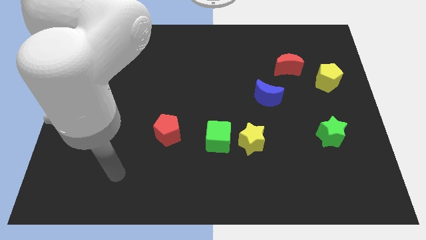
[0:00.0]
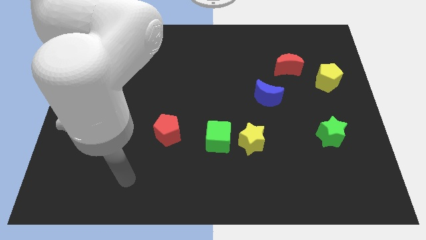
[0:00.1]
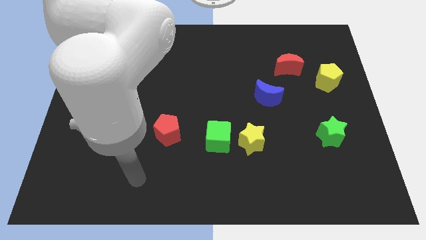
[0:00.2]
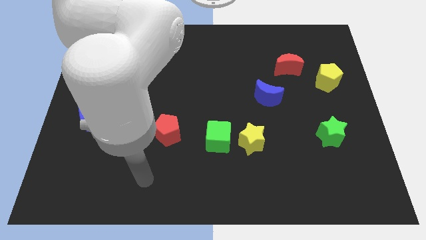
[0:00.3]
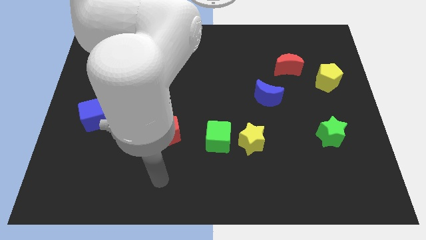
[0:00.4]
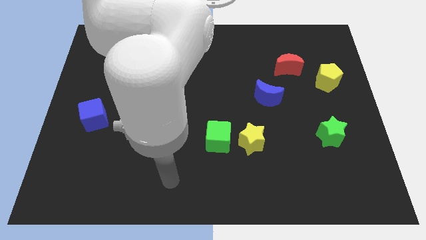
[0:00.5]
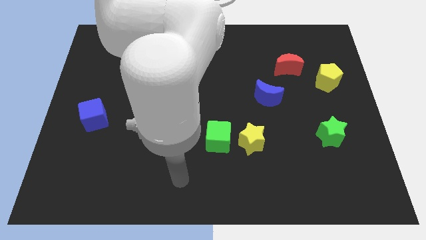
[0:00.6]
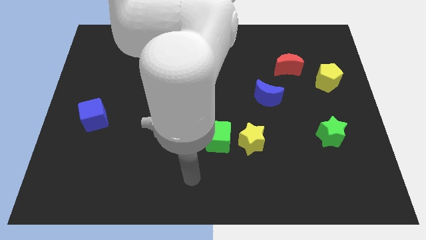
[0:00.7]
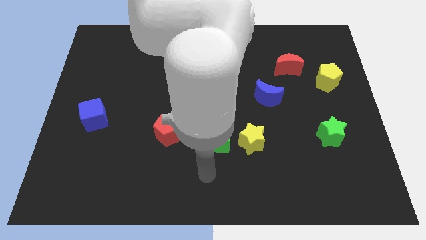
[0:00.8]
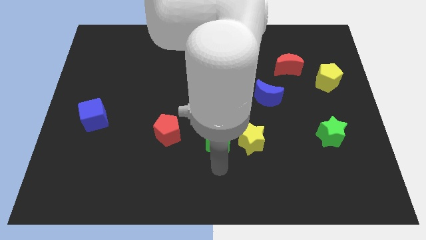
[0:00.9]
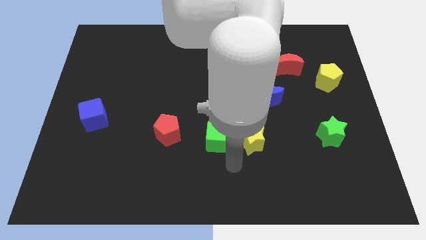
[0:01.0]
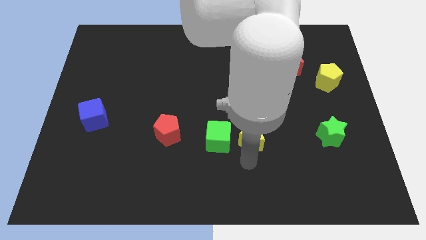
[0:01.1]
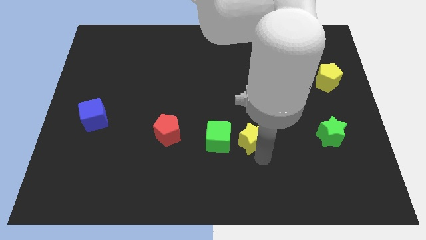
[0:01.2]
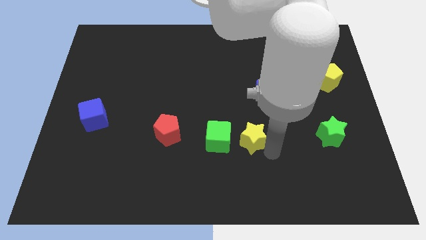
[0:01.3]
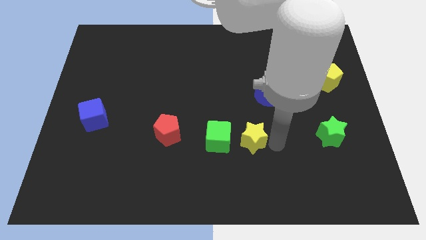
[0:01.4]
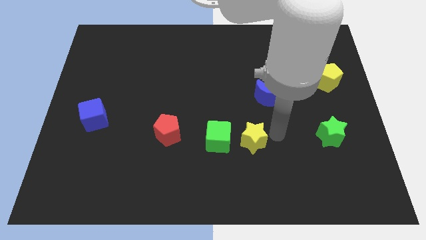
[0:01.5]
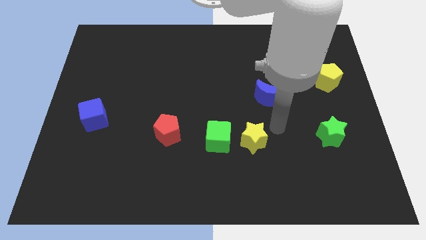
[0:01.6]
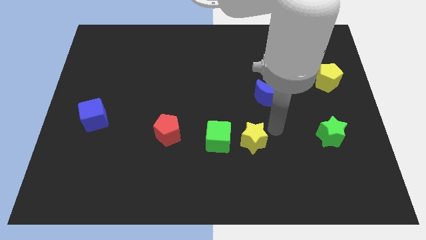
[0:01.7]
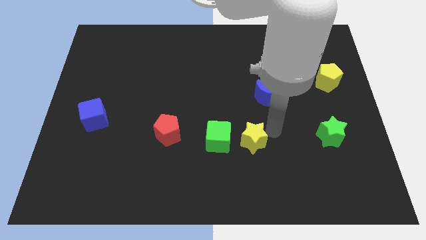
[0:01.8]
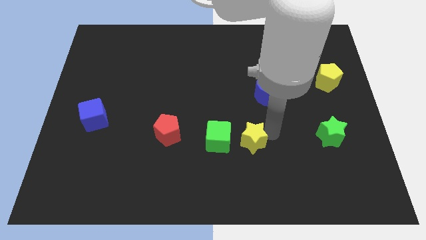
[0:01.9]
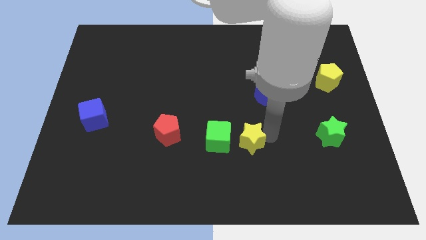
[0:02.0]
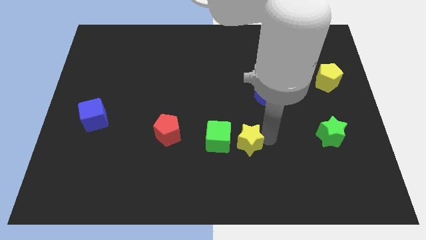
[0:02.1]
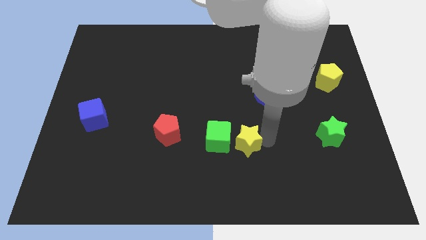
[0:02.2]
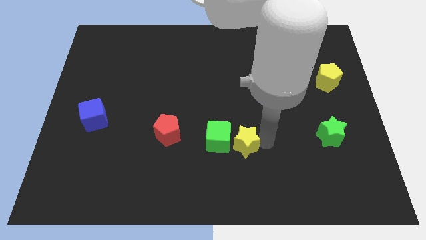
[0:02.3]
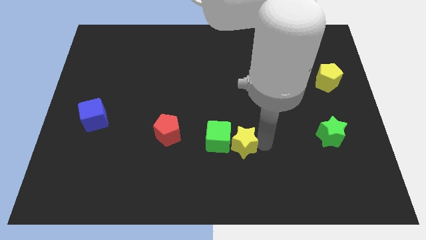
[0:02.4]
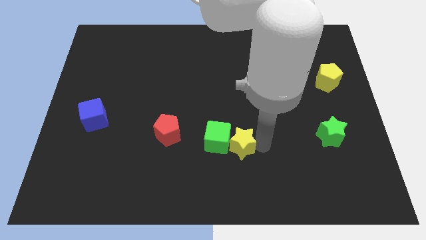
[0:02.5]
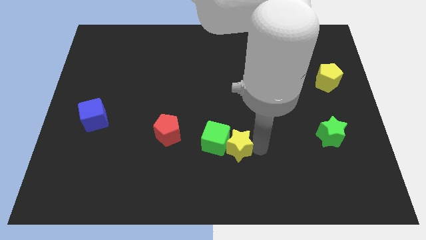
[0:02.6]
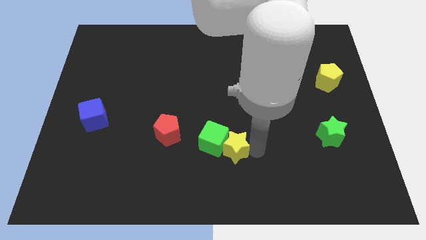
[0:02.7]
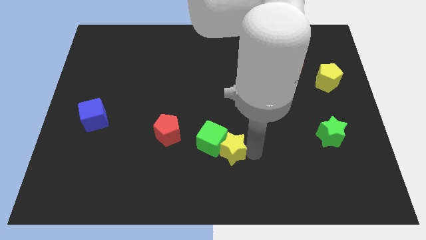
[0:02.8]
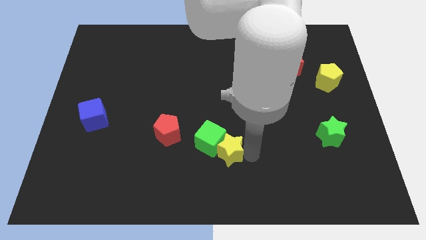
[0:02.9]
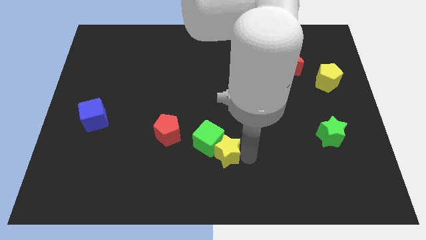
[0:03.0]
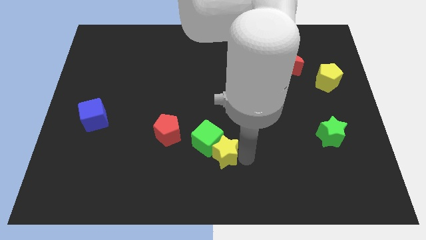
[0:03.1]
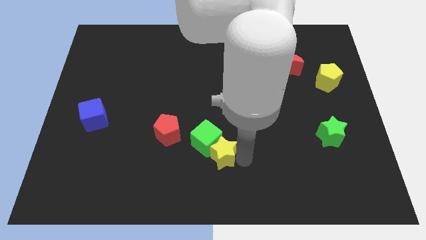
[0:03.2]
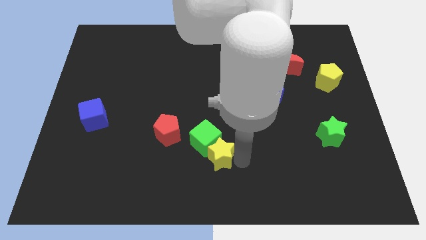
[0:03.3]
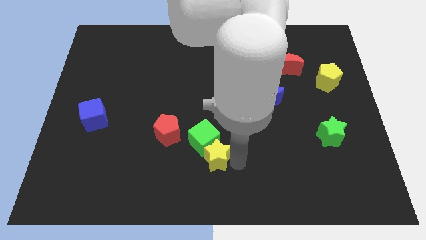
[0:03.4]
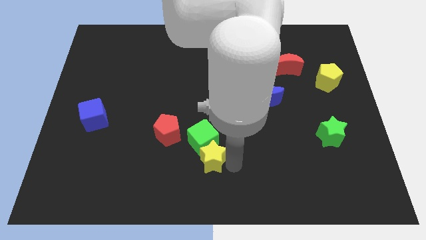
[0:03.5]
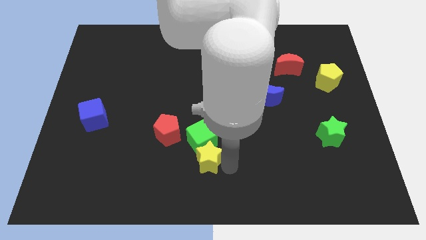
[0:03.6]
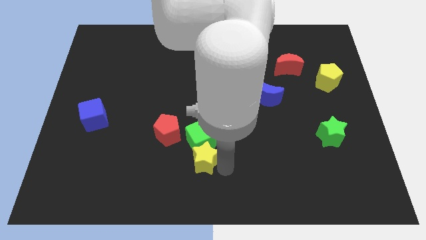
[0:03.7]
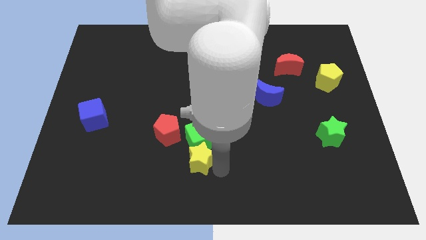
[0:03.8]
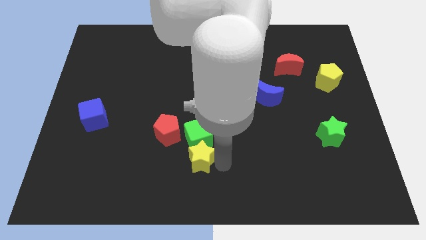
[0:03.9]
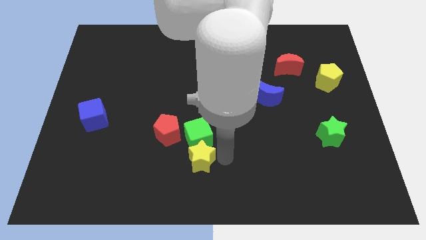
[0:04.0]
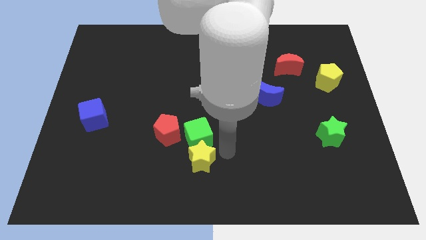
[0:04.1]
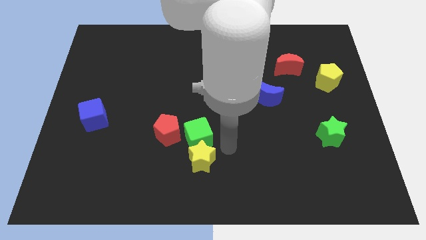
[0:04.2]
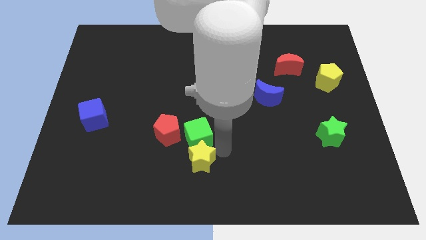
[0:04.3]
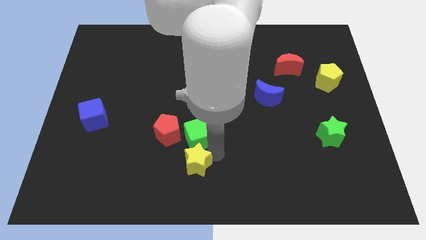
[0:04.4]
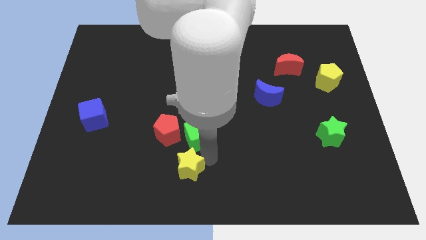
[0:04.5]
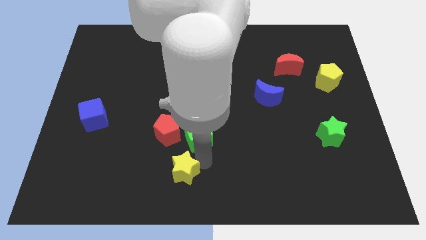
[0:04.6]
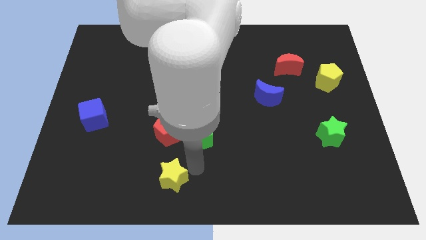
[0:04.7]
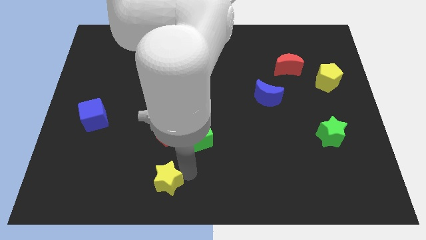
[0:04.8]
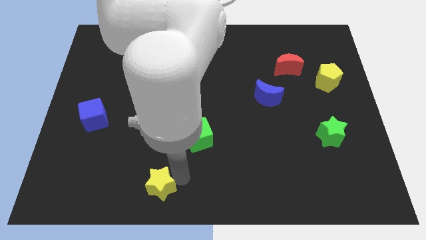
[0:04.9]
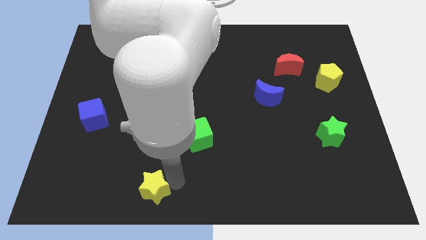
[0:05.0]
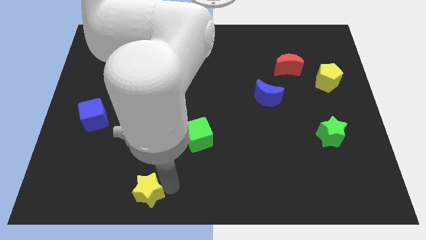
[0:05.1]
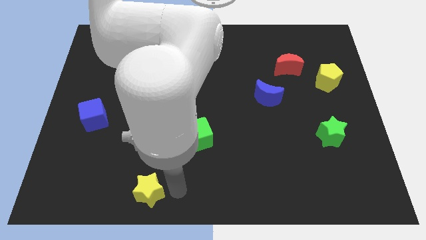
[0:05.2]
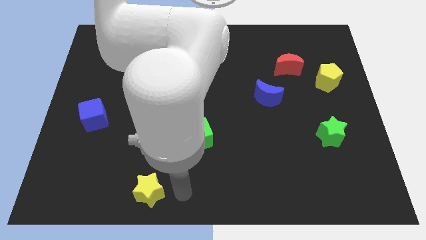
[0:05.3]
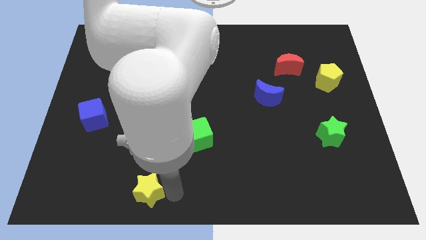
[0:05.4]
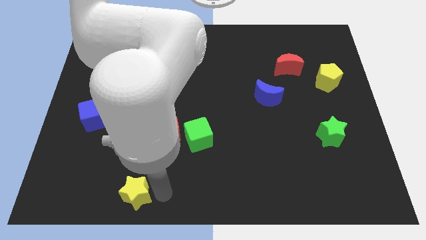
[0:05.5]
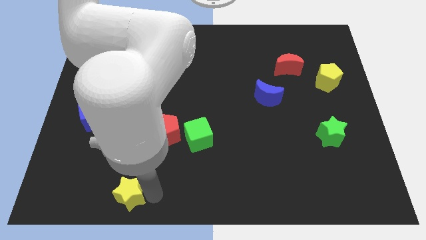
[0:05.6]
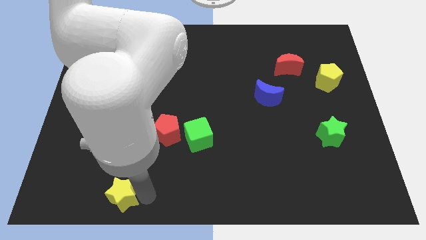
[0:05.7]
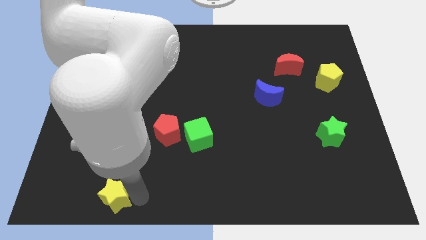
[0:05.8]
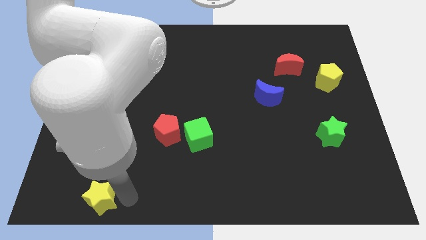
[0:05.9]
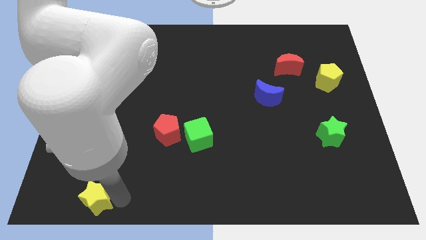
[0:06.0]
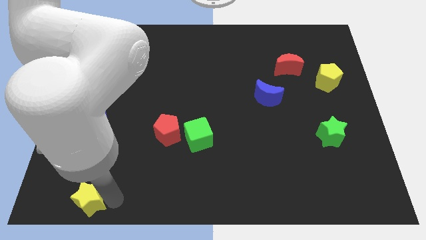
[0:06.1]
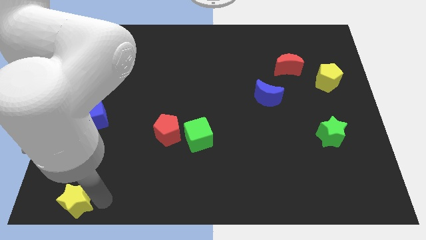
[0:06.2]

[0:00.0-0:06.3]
push the yellow star to the bottom left of the board
